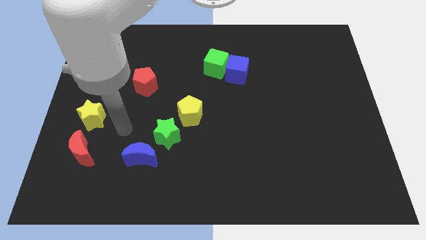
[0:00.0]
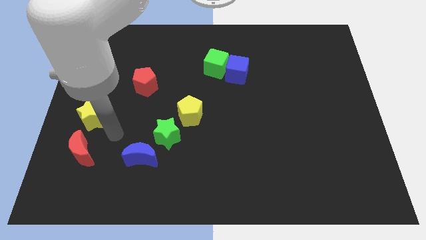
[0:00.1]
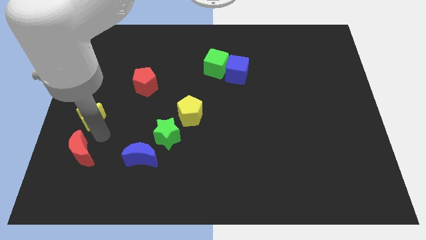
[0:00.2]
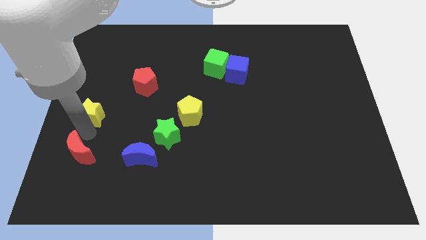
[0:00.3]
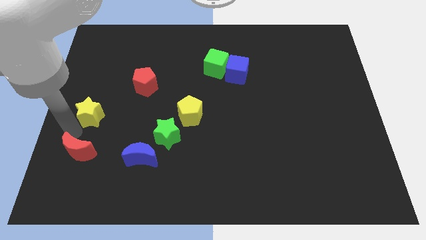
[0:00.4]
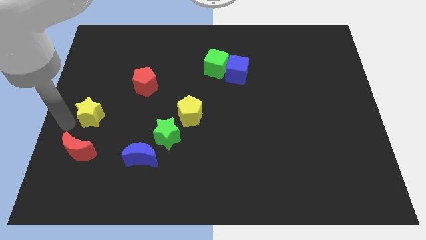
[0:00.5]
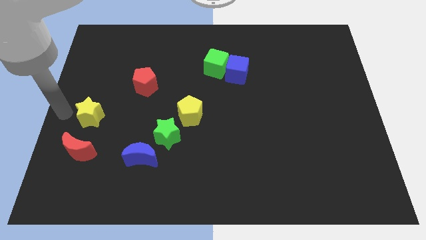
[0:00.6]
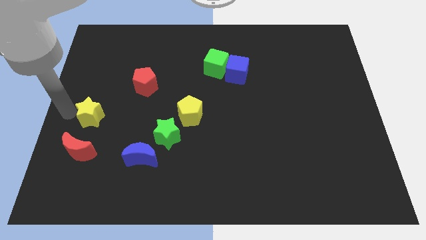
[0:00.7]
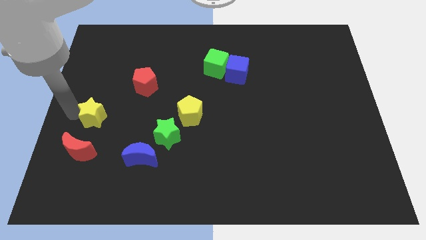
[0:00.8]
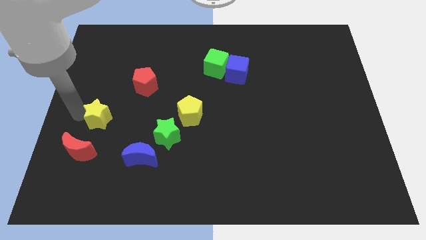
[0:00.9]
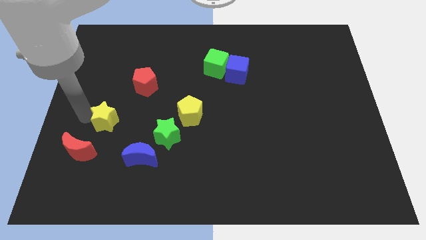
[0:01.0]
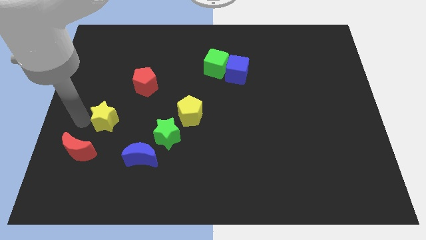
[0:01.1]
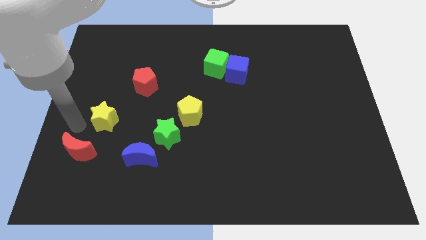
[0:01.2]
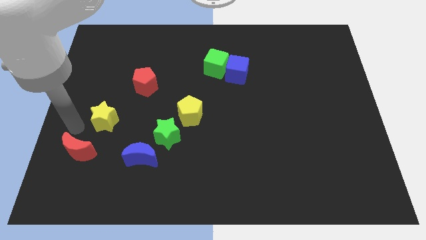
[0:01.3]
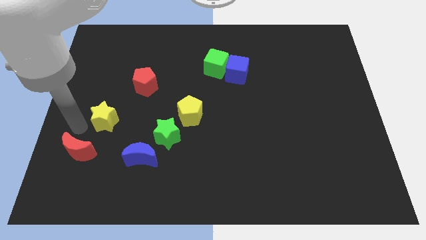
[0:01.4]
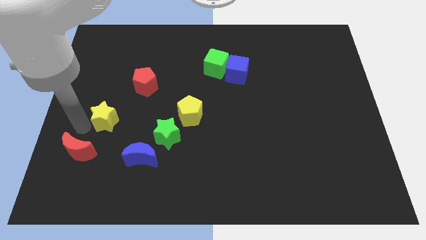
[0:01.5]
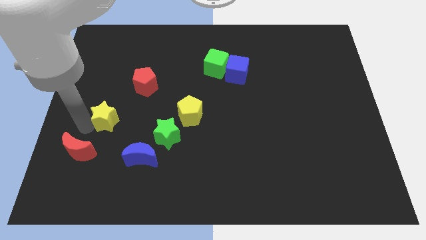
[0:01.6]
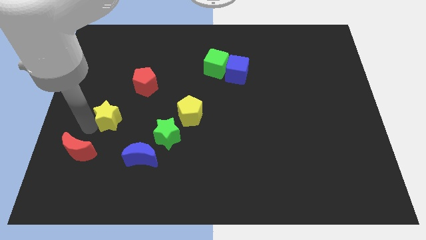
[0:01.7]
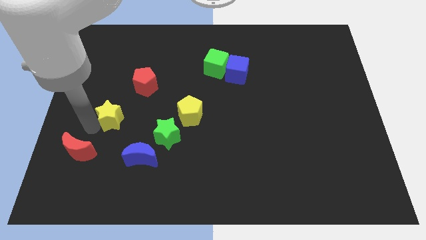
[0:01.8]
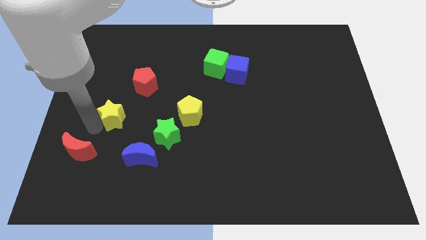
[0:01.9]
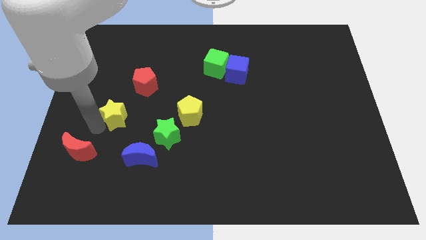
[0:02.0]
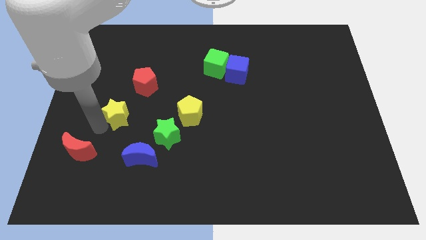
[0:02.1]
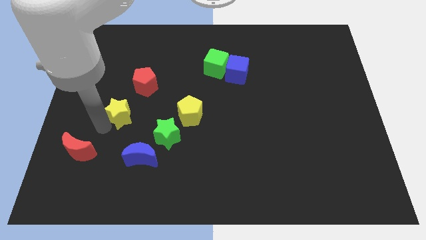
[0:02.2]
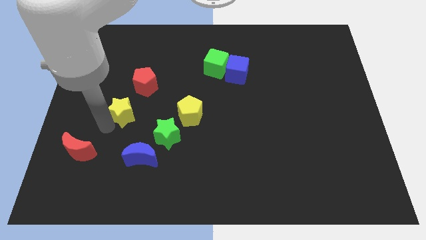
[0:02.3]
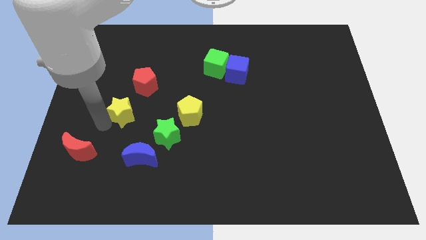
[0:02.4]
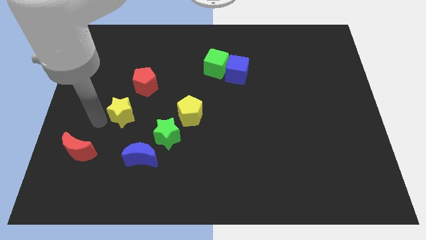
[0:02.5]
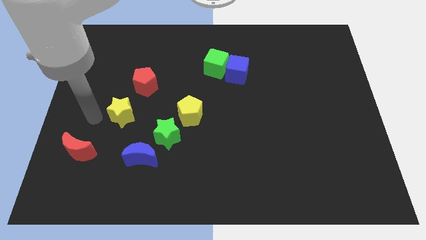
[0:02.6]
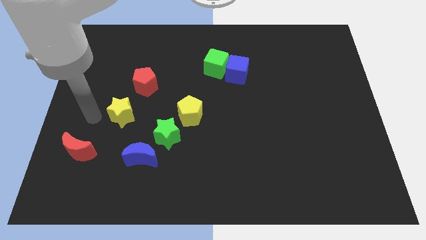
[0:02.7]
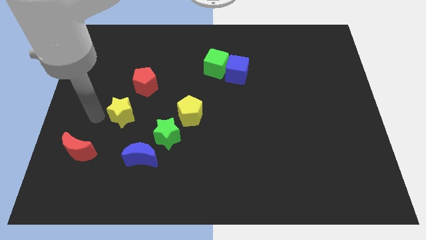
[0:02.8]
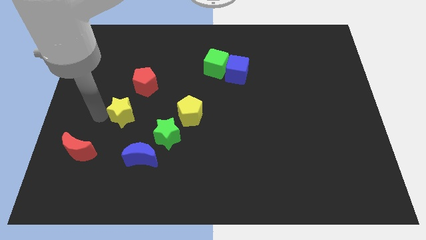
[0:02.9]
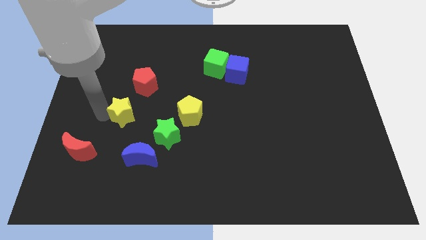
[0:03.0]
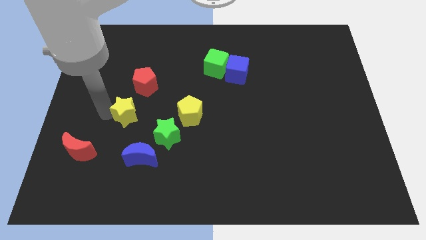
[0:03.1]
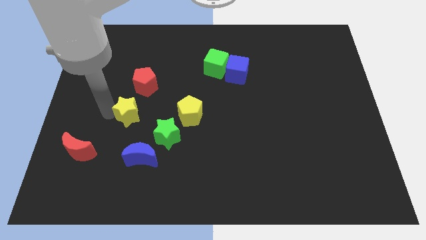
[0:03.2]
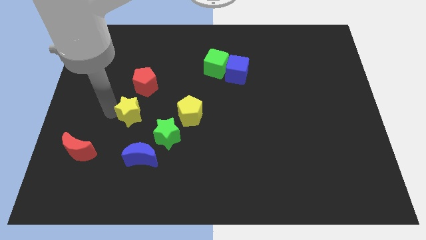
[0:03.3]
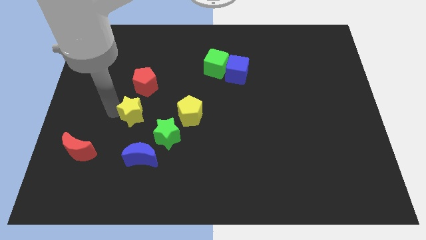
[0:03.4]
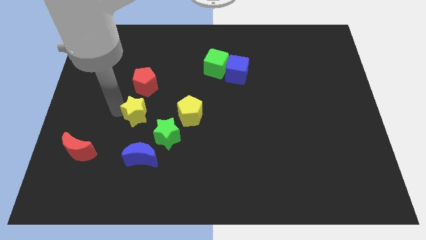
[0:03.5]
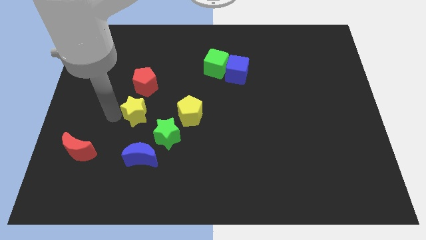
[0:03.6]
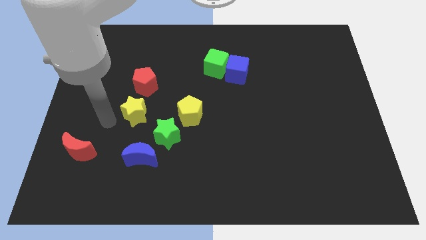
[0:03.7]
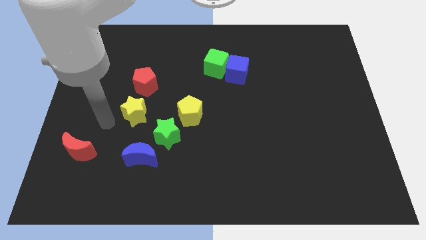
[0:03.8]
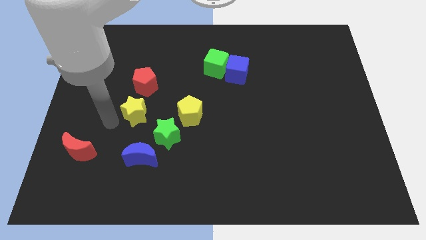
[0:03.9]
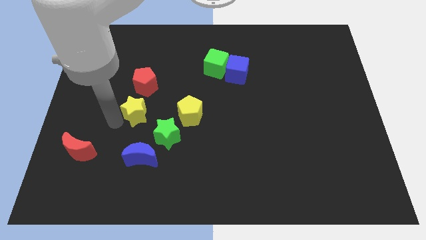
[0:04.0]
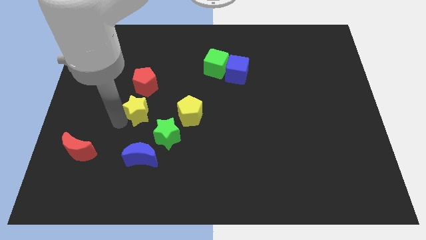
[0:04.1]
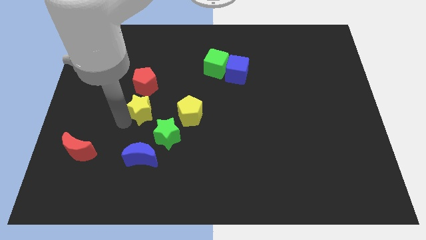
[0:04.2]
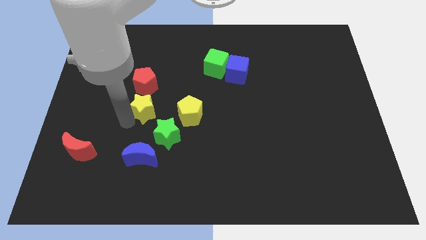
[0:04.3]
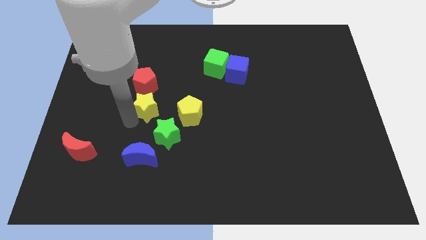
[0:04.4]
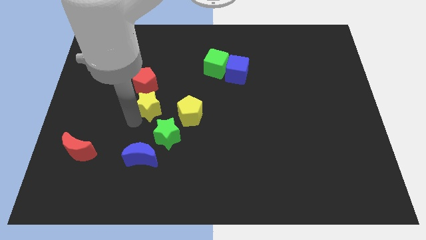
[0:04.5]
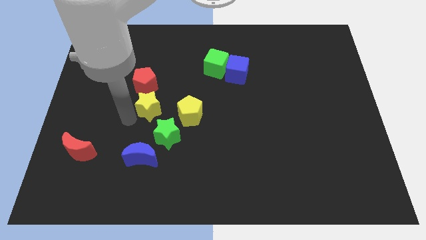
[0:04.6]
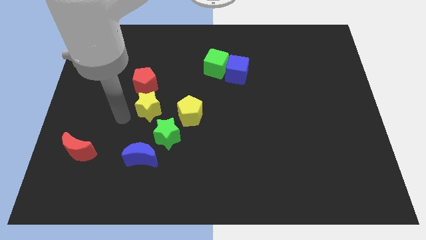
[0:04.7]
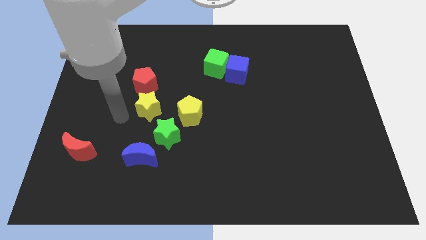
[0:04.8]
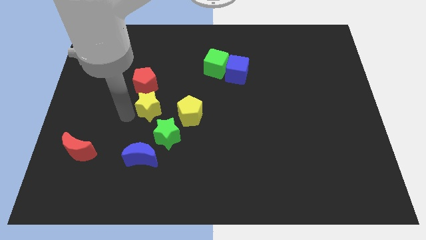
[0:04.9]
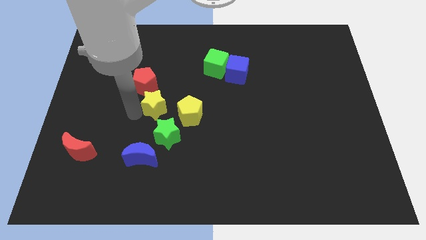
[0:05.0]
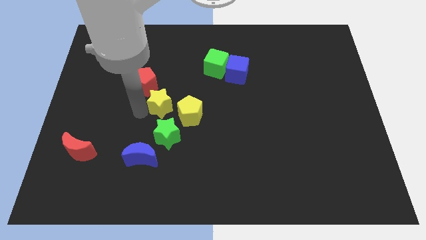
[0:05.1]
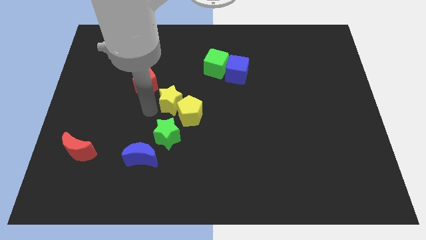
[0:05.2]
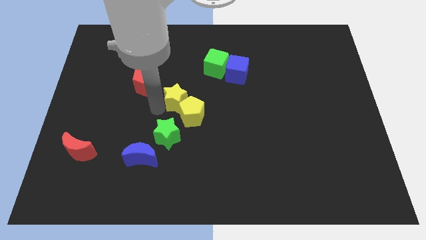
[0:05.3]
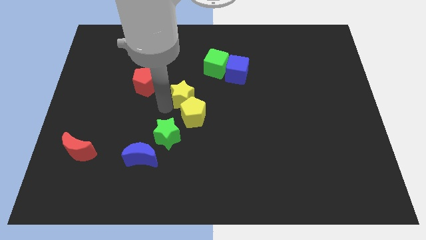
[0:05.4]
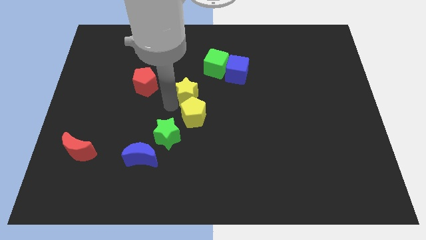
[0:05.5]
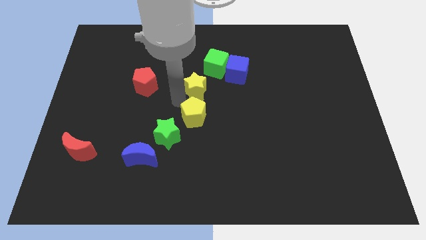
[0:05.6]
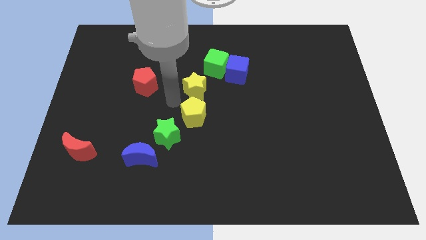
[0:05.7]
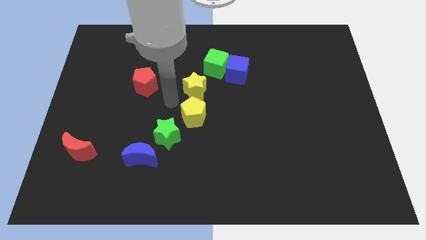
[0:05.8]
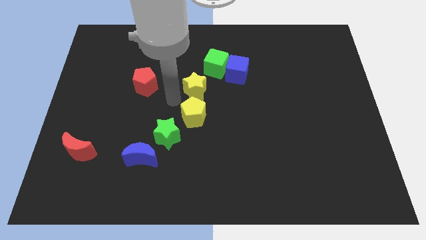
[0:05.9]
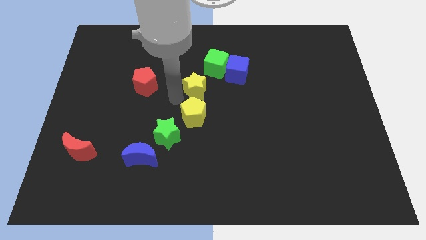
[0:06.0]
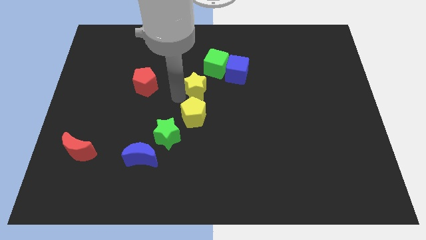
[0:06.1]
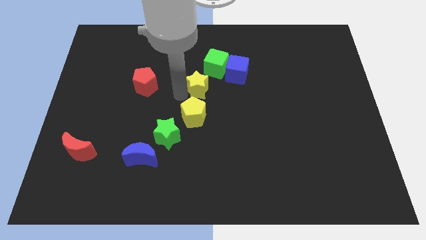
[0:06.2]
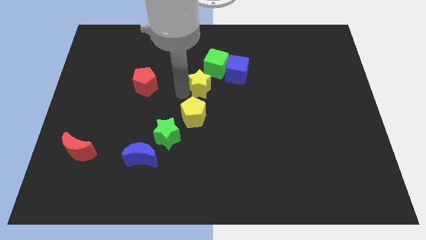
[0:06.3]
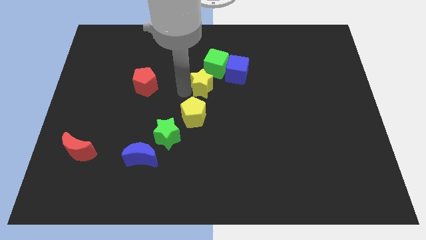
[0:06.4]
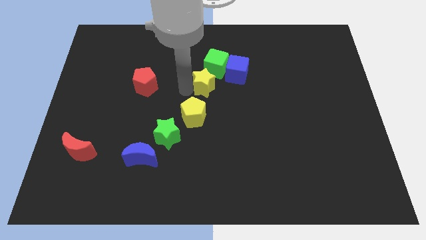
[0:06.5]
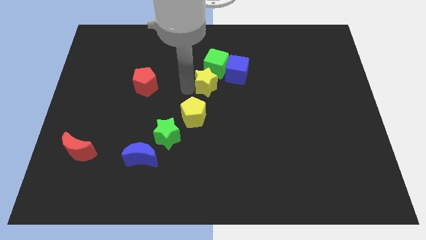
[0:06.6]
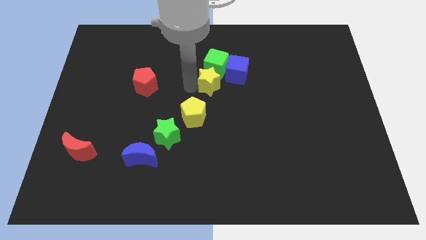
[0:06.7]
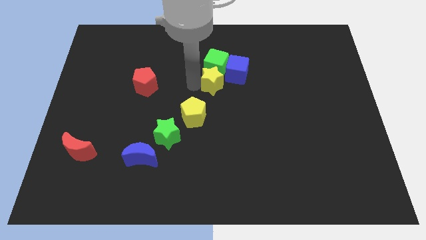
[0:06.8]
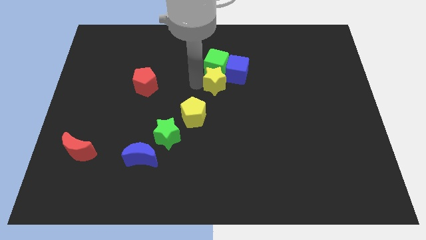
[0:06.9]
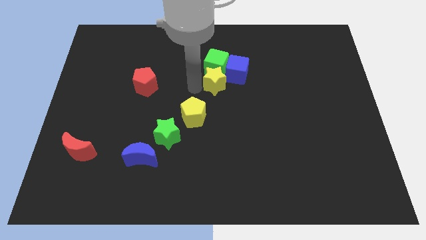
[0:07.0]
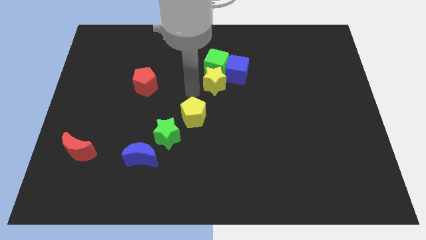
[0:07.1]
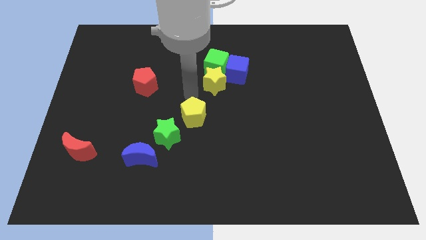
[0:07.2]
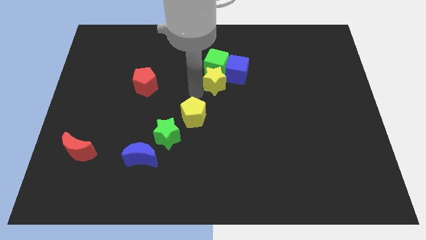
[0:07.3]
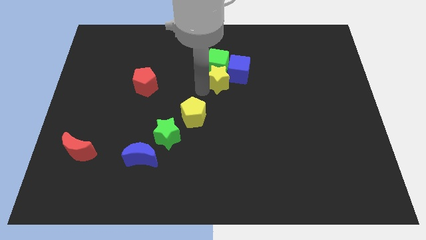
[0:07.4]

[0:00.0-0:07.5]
move the yellow star close to the blue cube

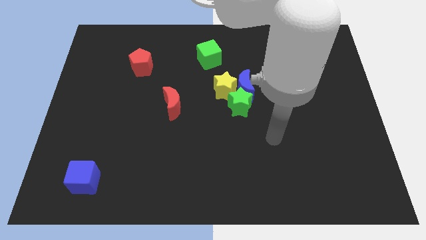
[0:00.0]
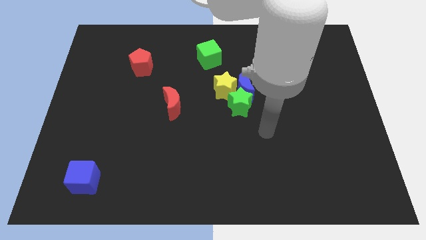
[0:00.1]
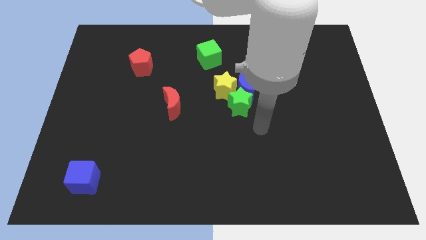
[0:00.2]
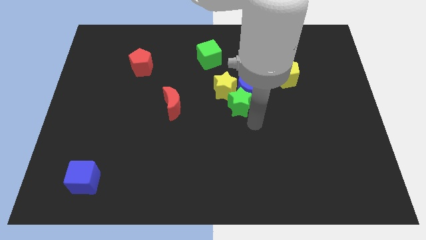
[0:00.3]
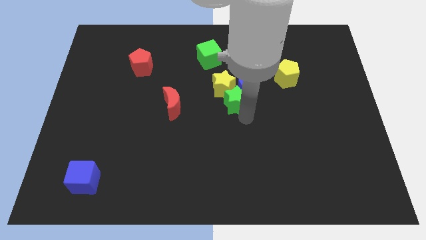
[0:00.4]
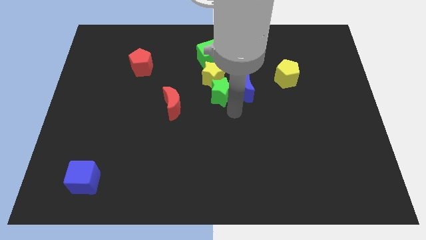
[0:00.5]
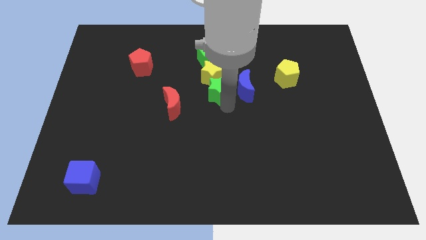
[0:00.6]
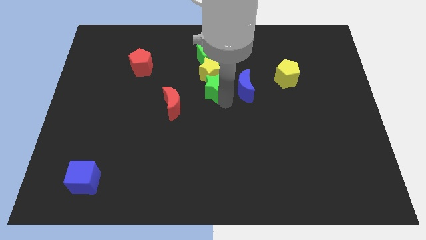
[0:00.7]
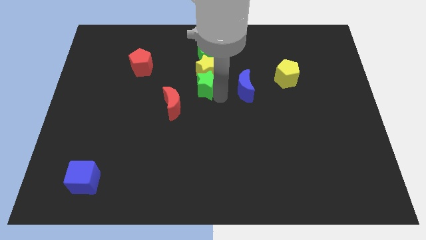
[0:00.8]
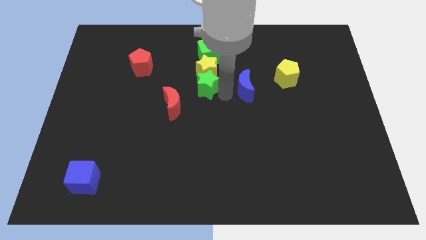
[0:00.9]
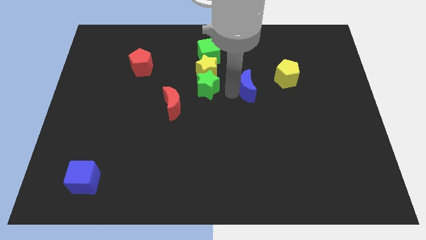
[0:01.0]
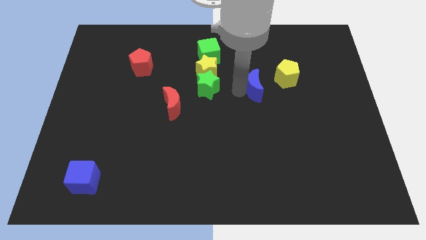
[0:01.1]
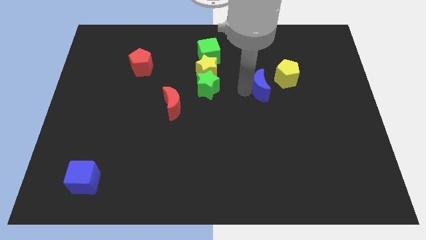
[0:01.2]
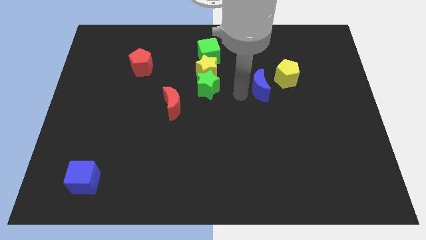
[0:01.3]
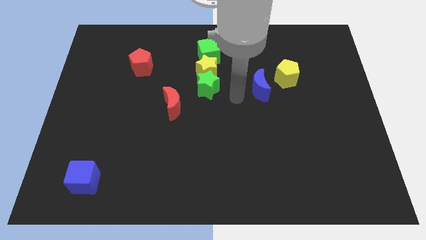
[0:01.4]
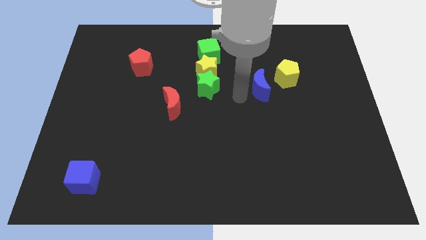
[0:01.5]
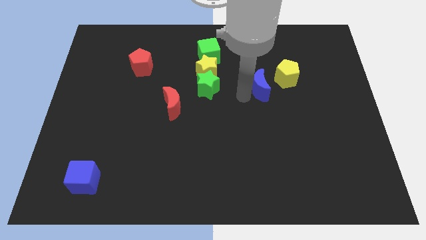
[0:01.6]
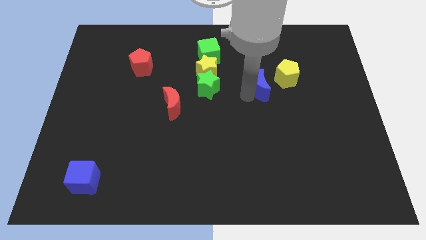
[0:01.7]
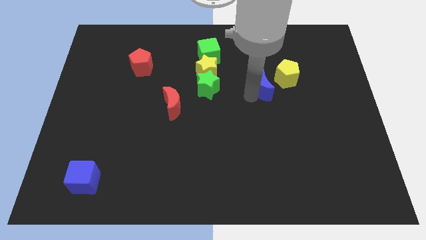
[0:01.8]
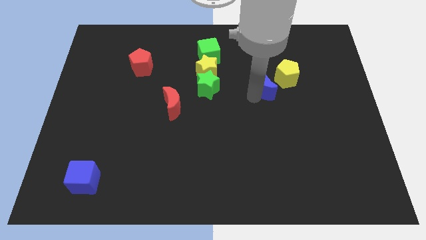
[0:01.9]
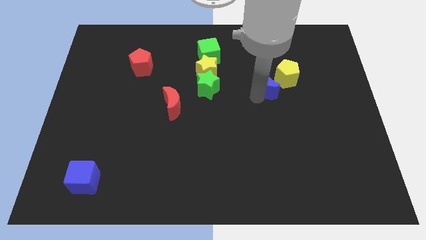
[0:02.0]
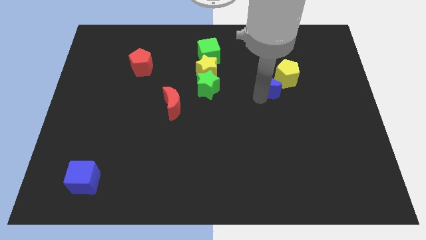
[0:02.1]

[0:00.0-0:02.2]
push the blue moon towards the yellow pentagon
